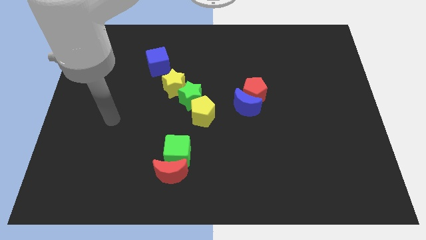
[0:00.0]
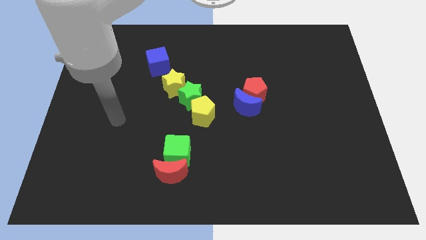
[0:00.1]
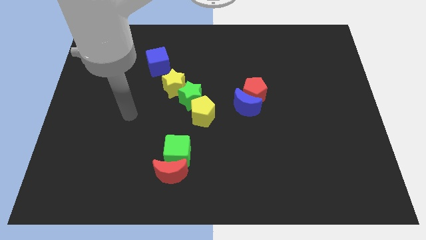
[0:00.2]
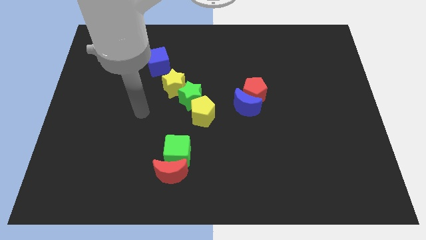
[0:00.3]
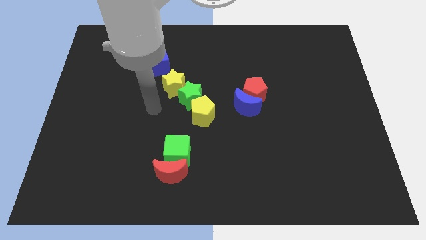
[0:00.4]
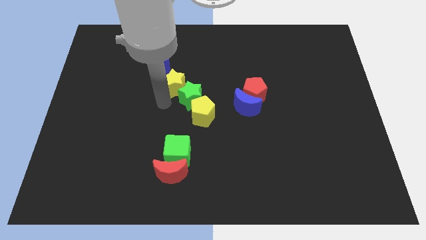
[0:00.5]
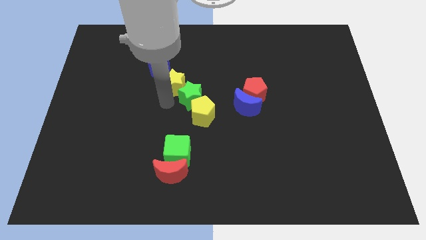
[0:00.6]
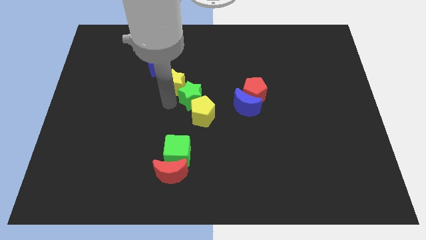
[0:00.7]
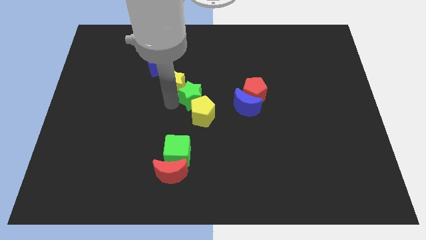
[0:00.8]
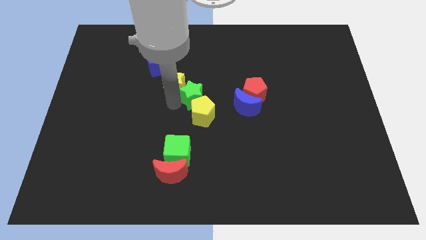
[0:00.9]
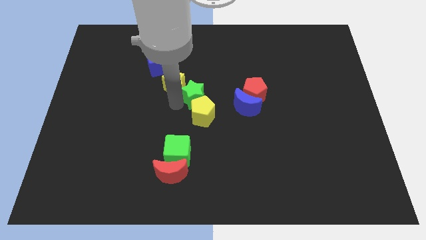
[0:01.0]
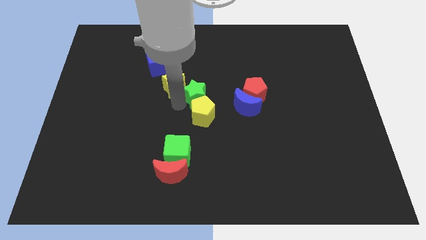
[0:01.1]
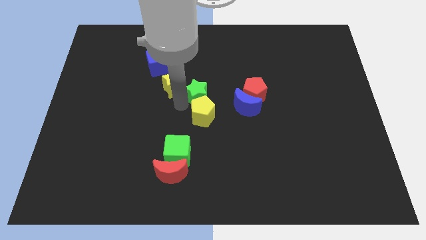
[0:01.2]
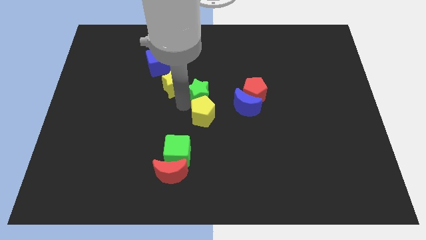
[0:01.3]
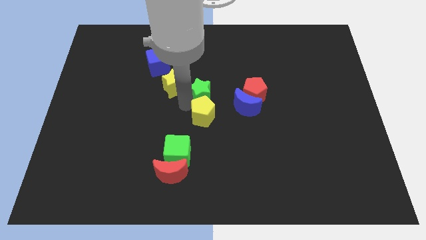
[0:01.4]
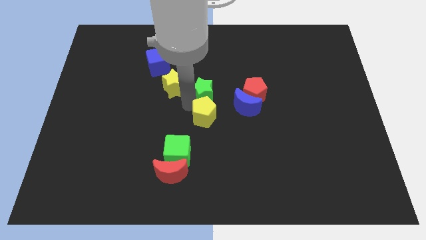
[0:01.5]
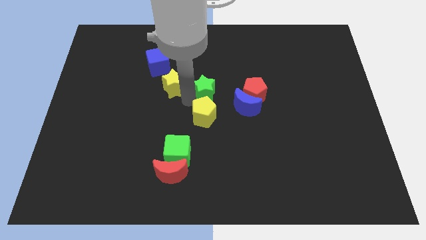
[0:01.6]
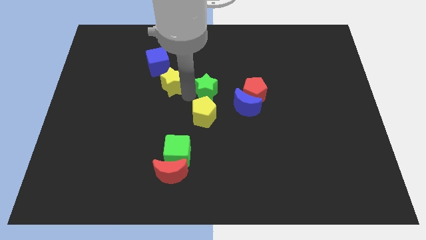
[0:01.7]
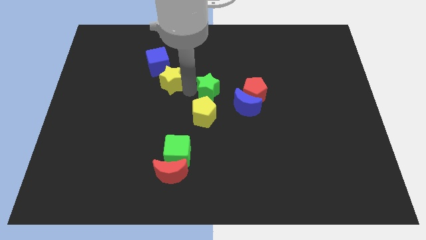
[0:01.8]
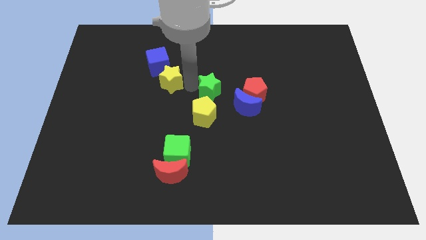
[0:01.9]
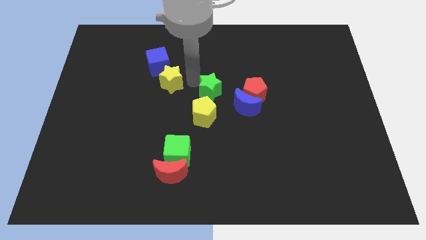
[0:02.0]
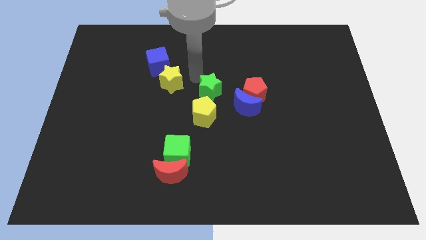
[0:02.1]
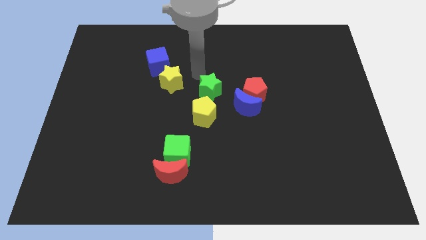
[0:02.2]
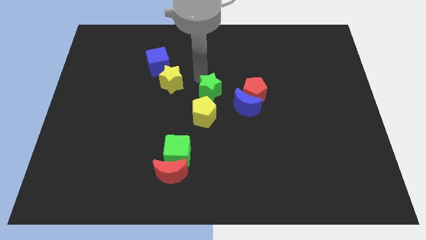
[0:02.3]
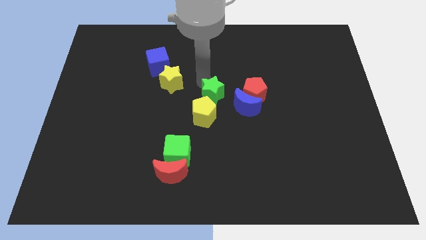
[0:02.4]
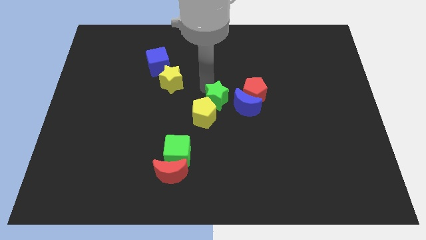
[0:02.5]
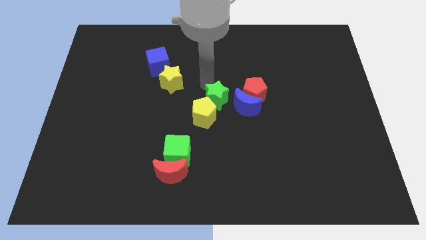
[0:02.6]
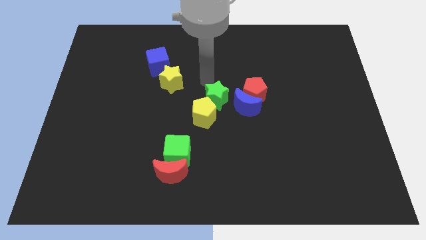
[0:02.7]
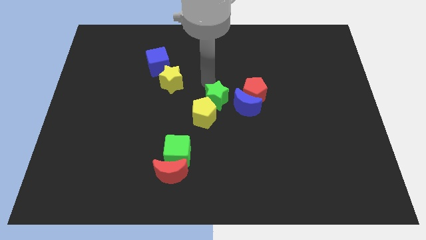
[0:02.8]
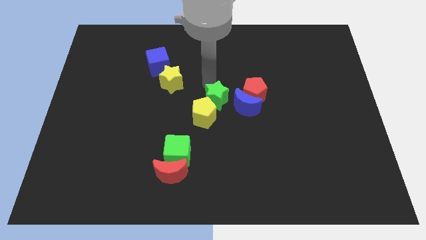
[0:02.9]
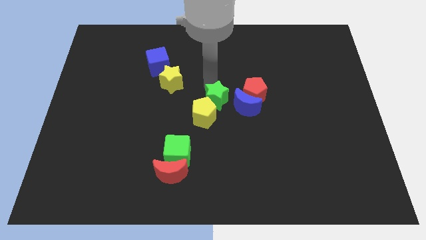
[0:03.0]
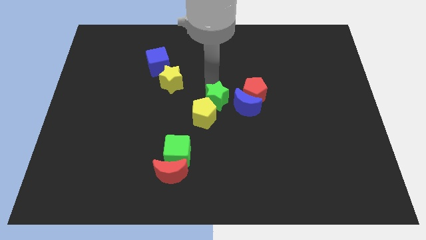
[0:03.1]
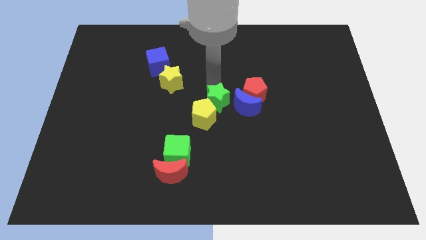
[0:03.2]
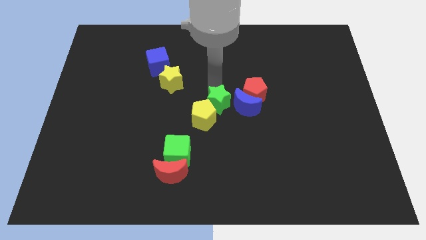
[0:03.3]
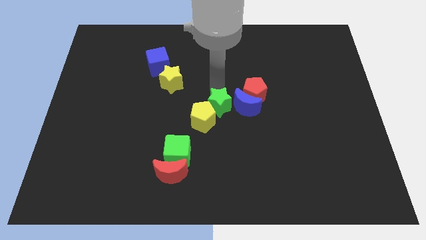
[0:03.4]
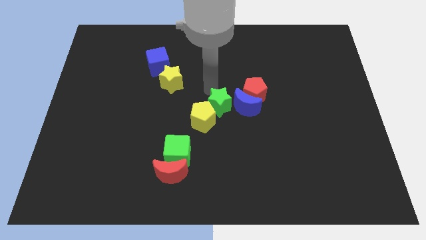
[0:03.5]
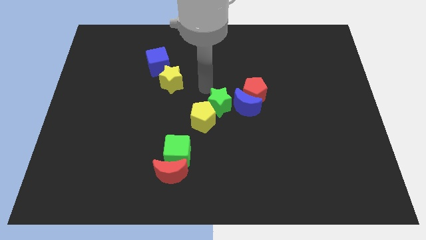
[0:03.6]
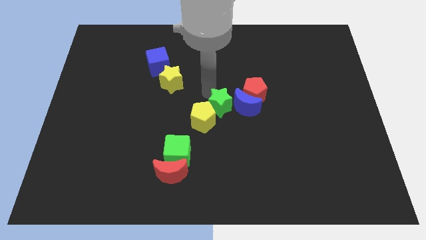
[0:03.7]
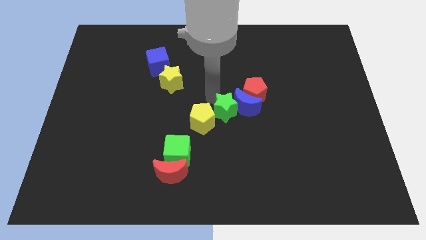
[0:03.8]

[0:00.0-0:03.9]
move the green star down and right a little bit

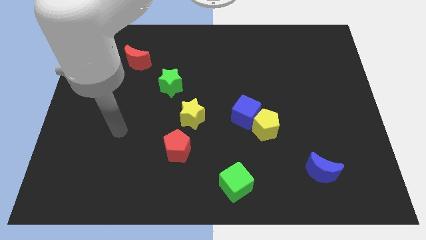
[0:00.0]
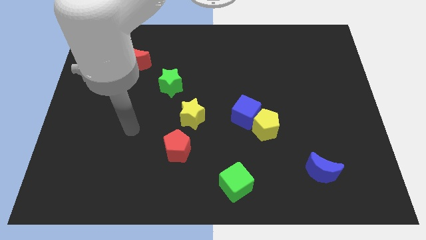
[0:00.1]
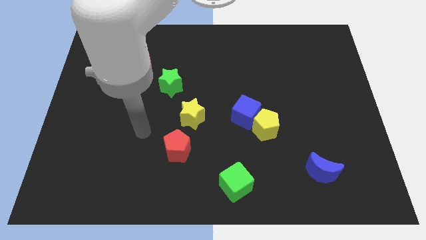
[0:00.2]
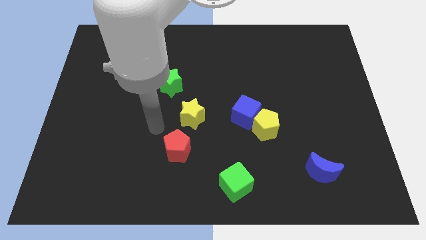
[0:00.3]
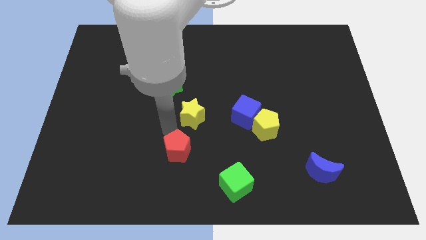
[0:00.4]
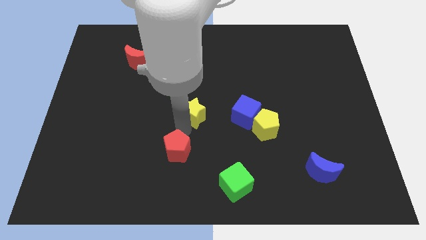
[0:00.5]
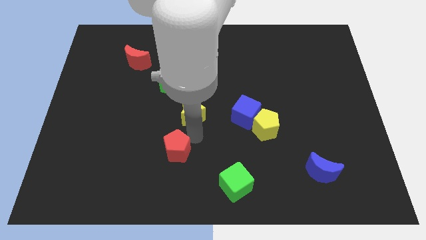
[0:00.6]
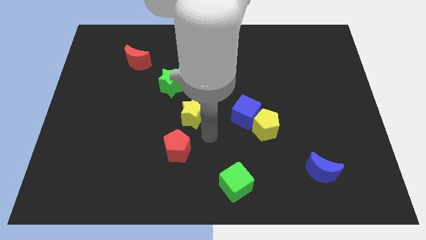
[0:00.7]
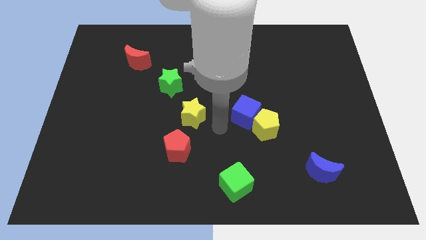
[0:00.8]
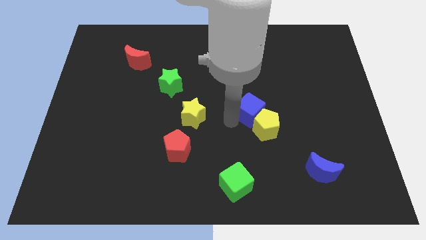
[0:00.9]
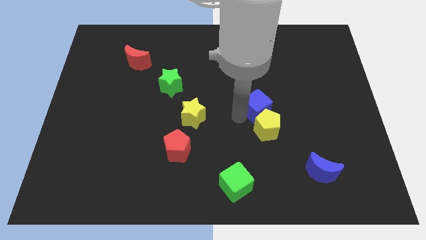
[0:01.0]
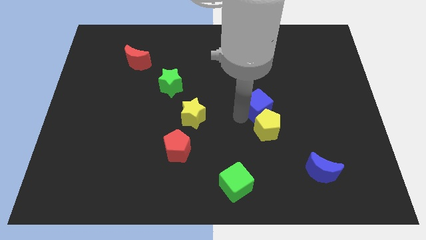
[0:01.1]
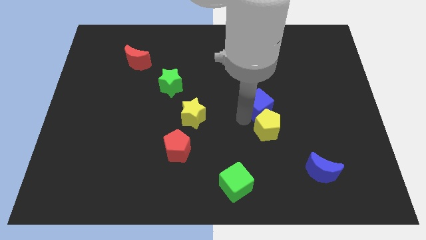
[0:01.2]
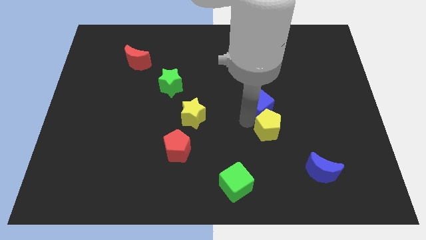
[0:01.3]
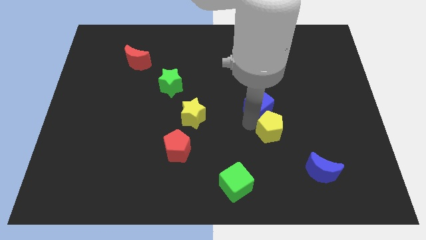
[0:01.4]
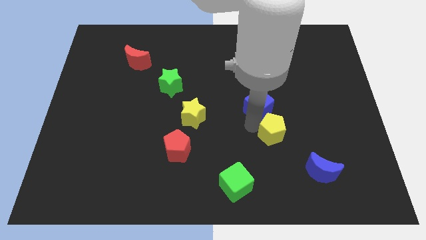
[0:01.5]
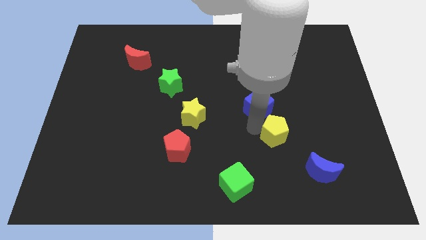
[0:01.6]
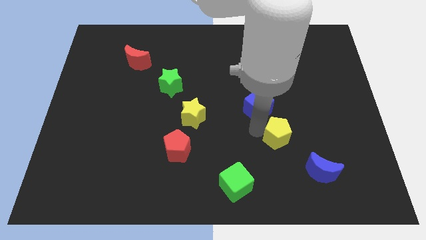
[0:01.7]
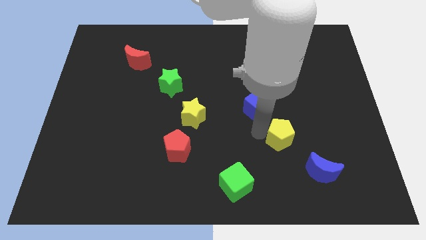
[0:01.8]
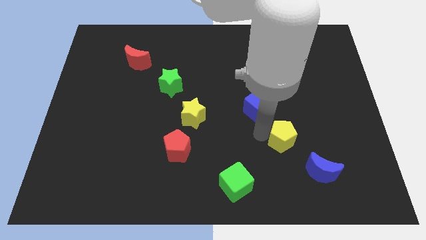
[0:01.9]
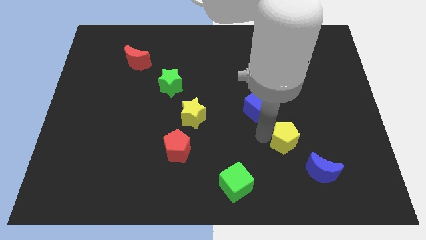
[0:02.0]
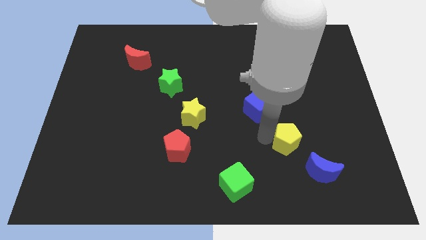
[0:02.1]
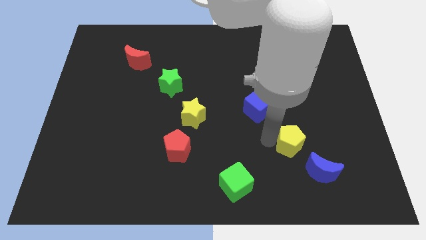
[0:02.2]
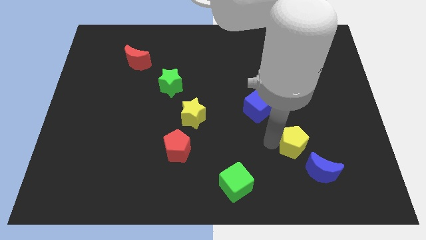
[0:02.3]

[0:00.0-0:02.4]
move the yellow pentagon a bit down and to the right diagonally

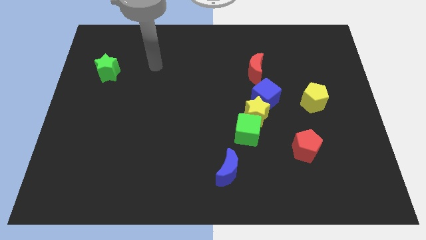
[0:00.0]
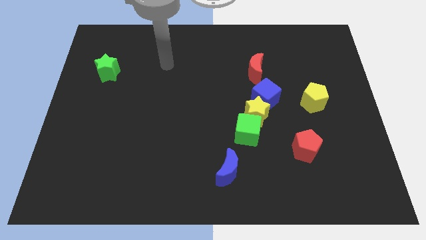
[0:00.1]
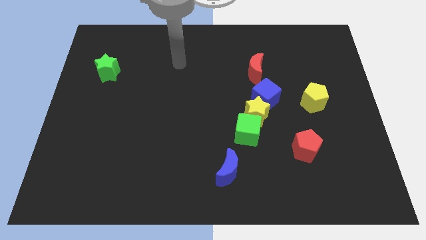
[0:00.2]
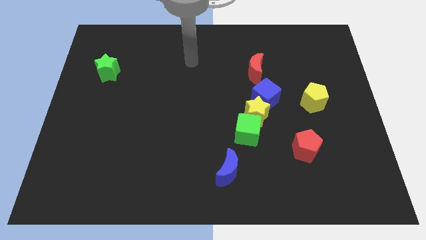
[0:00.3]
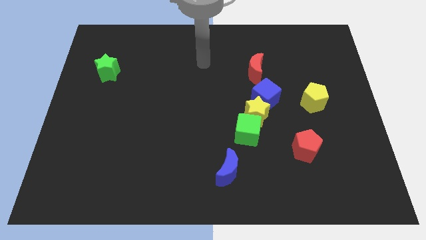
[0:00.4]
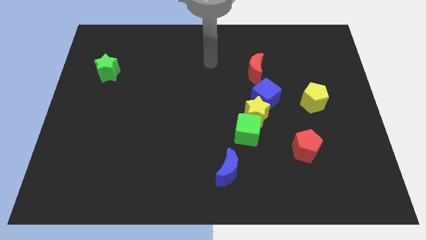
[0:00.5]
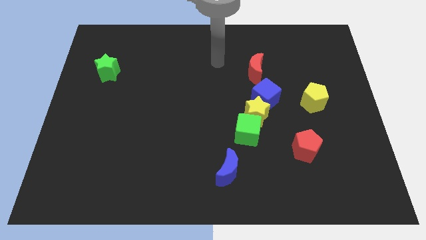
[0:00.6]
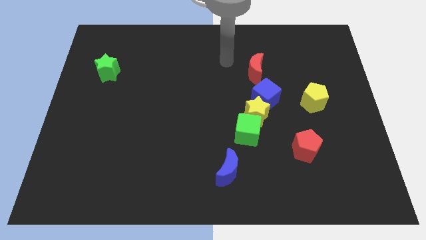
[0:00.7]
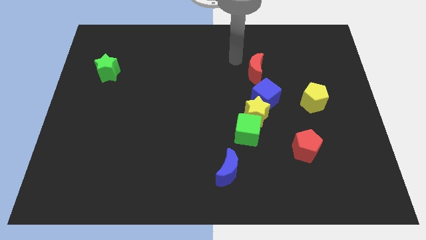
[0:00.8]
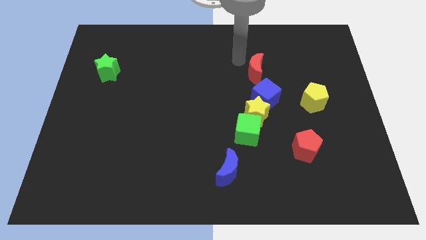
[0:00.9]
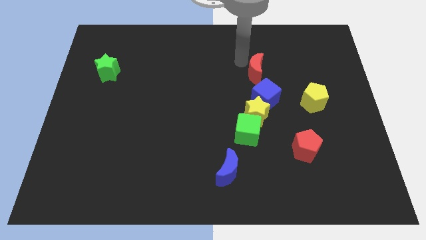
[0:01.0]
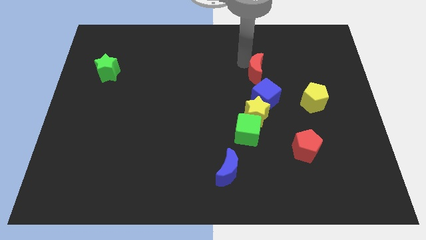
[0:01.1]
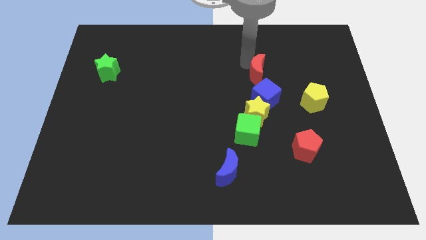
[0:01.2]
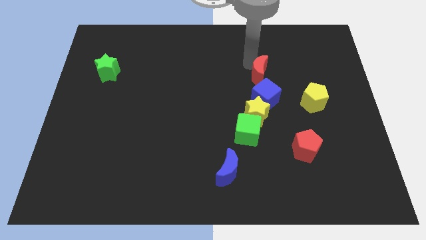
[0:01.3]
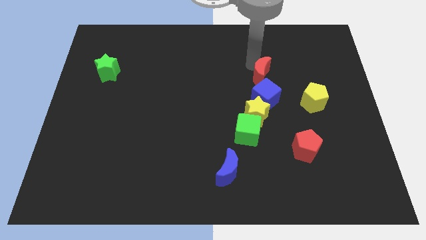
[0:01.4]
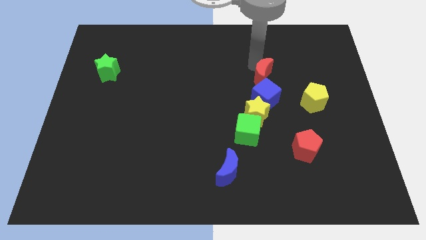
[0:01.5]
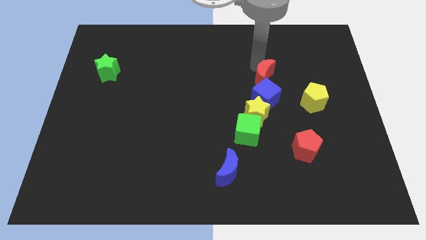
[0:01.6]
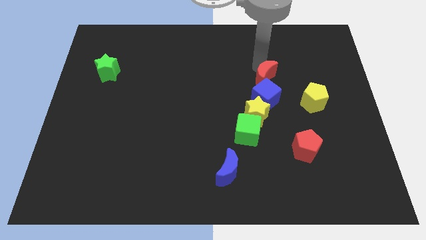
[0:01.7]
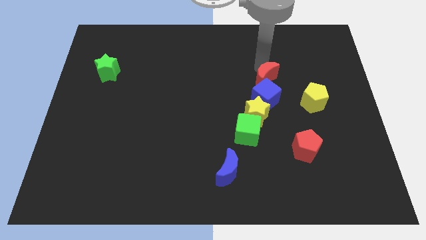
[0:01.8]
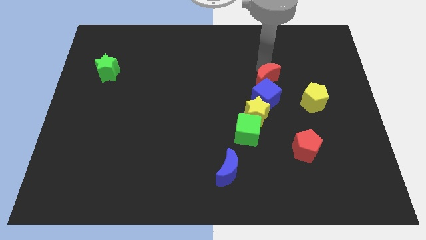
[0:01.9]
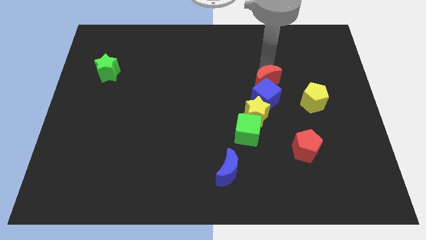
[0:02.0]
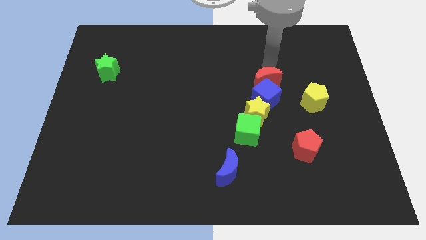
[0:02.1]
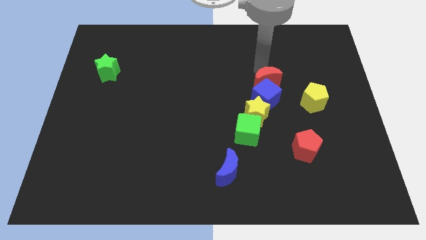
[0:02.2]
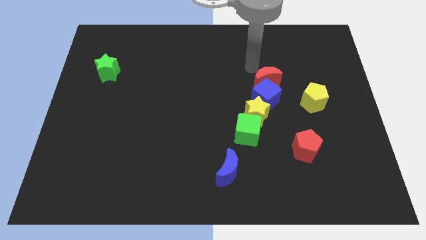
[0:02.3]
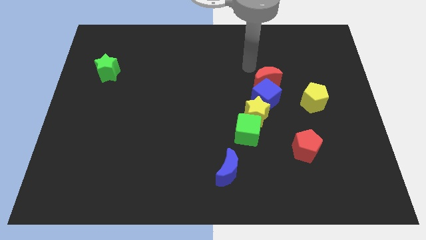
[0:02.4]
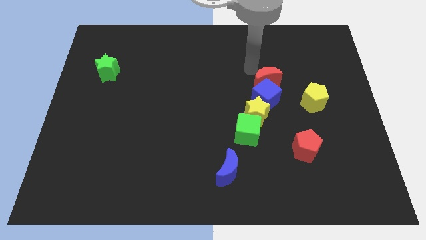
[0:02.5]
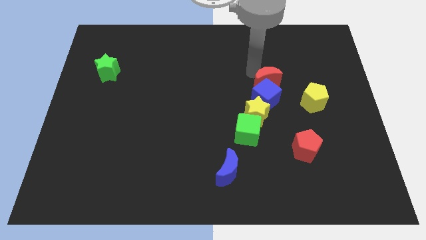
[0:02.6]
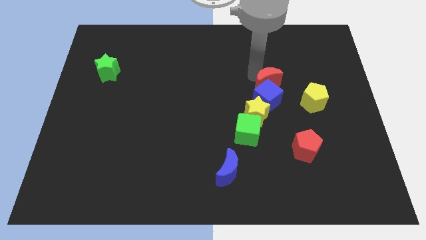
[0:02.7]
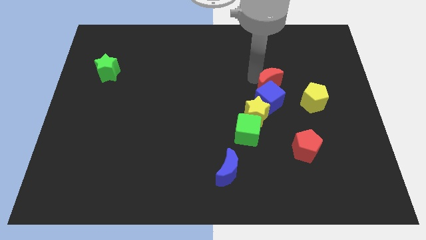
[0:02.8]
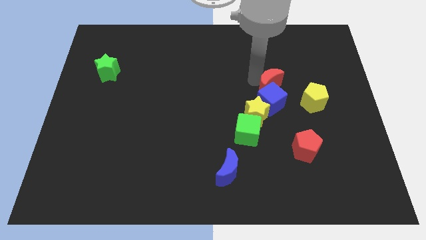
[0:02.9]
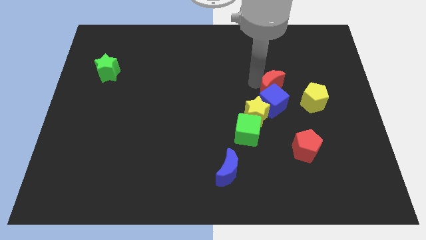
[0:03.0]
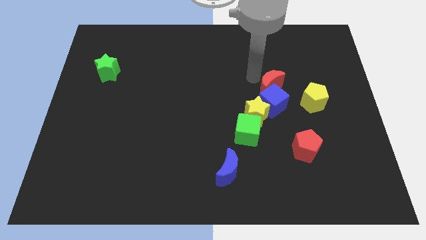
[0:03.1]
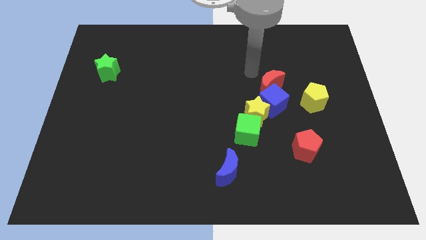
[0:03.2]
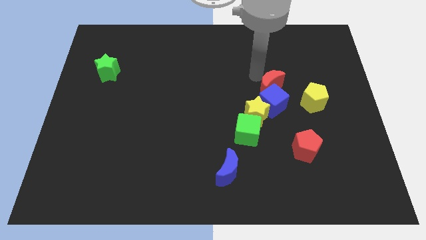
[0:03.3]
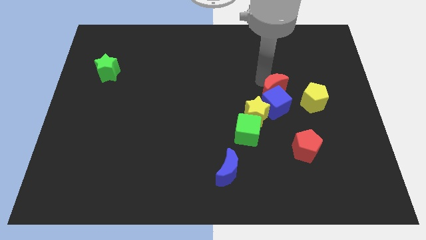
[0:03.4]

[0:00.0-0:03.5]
move the red moon downwards and then to the right a bit
